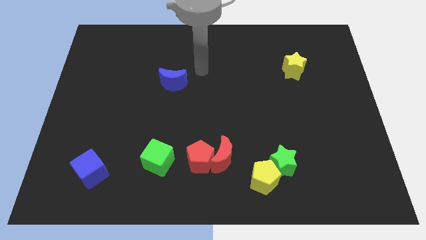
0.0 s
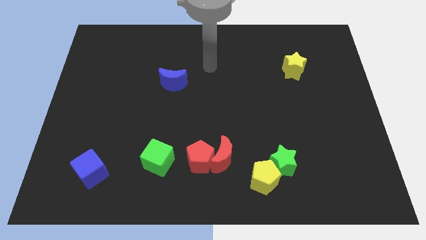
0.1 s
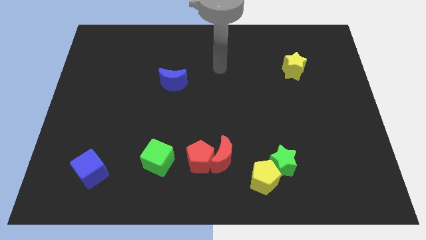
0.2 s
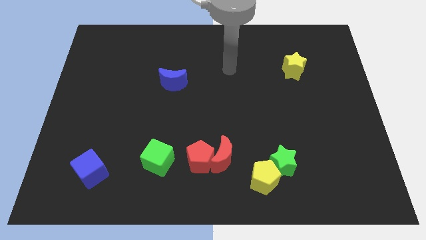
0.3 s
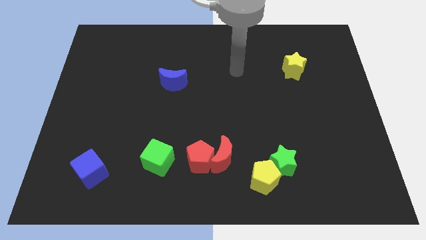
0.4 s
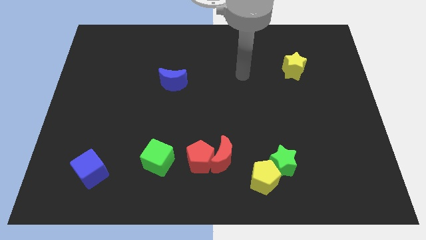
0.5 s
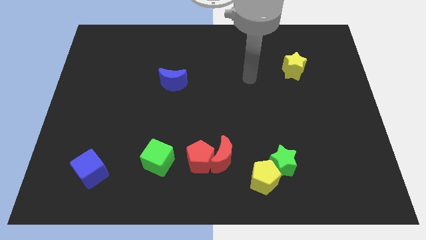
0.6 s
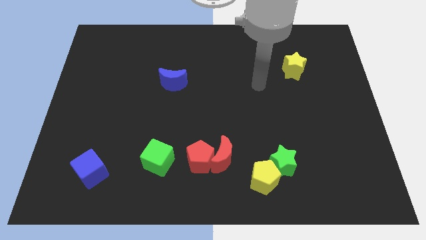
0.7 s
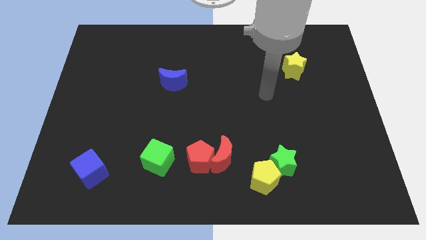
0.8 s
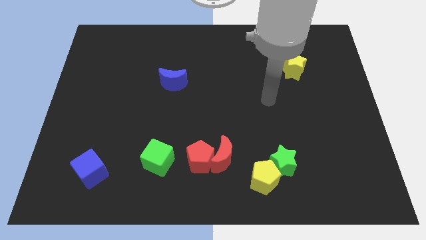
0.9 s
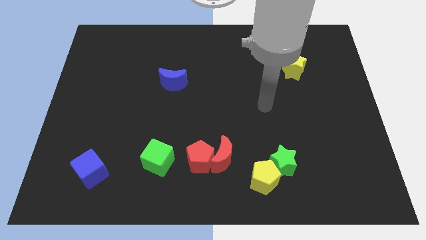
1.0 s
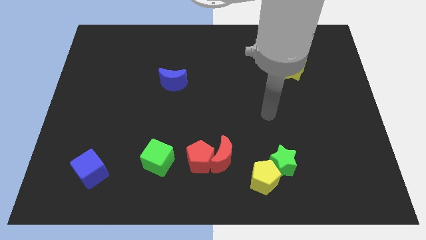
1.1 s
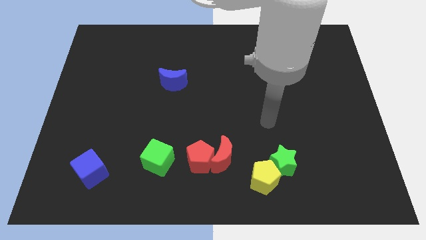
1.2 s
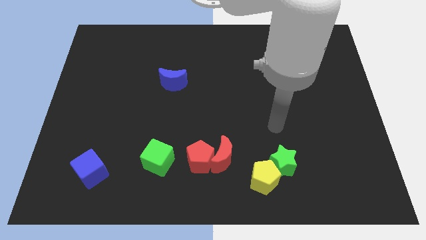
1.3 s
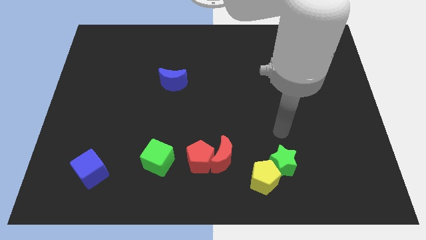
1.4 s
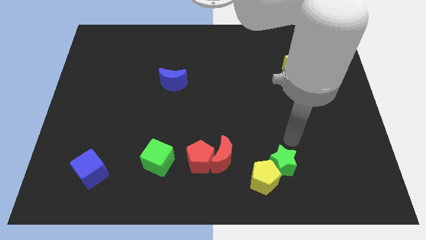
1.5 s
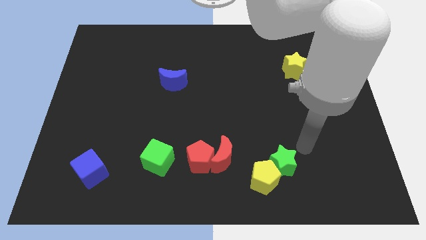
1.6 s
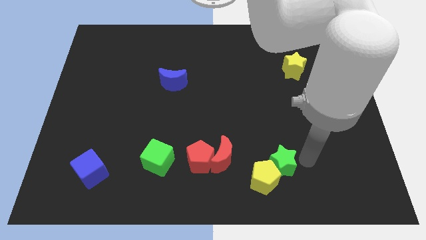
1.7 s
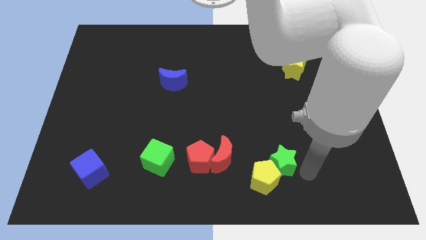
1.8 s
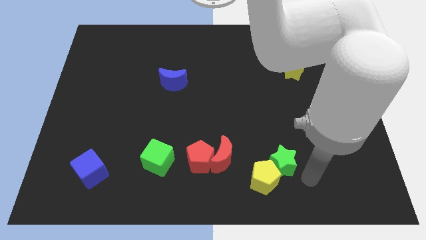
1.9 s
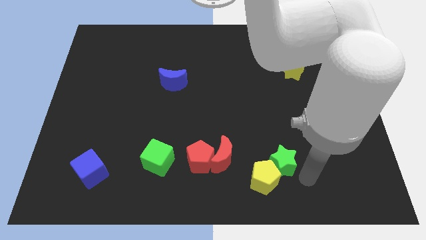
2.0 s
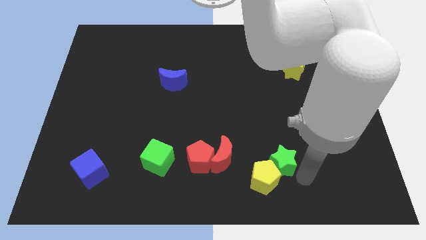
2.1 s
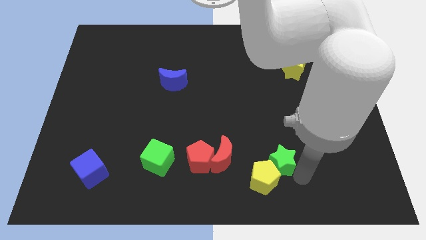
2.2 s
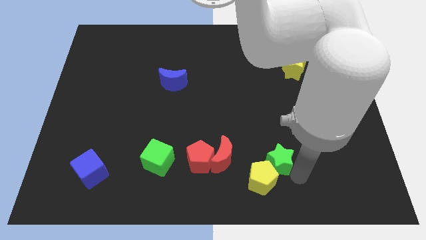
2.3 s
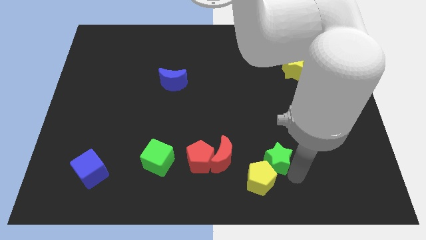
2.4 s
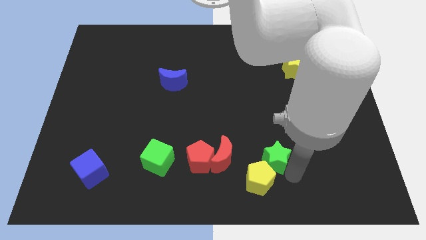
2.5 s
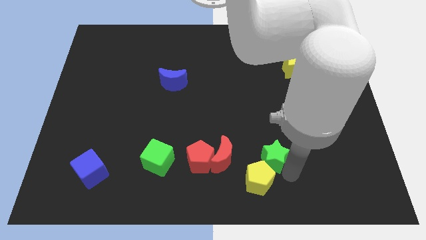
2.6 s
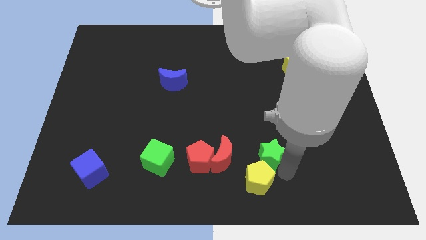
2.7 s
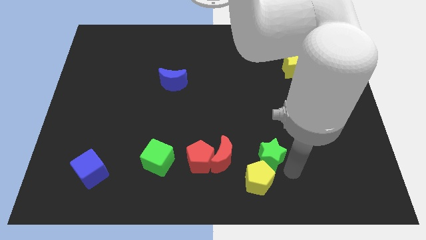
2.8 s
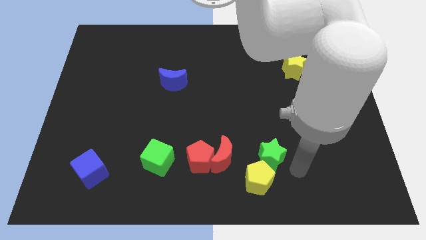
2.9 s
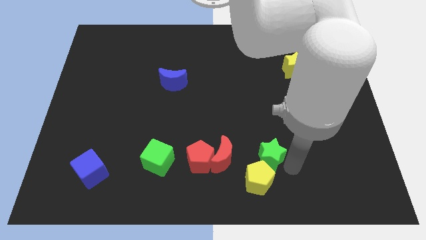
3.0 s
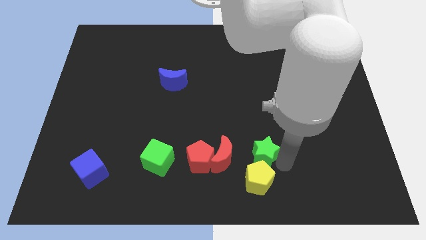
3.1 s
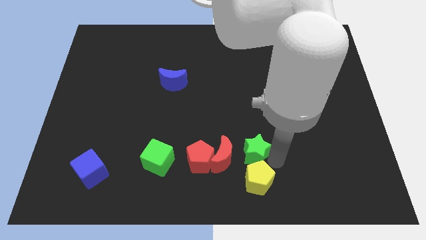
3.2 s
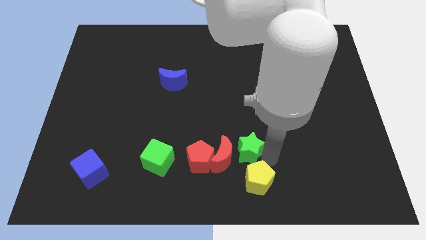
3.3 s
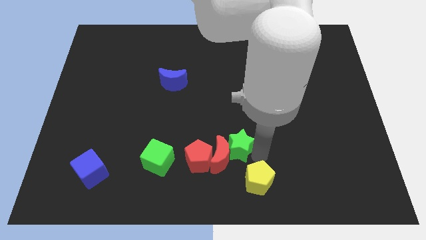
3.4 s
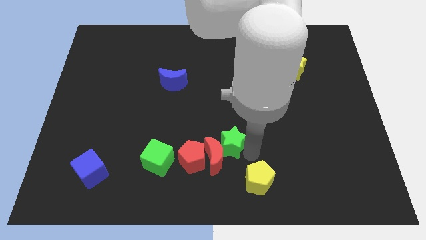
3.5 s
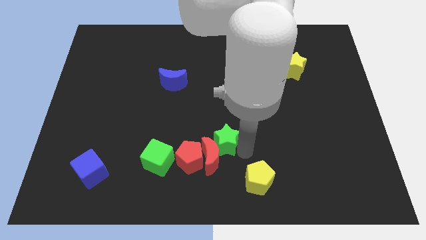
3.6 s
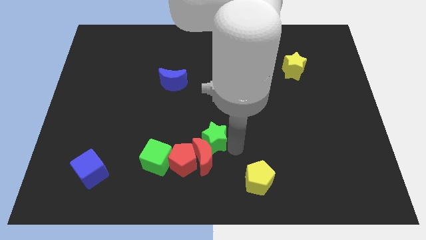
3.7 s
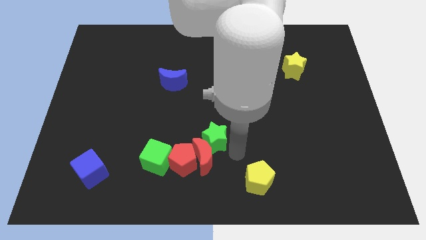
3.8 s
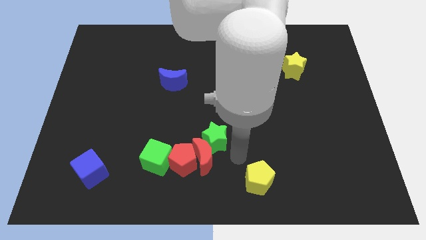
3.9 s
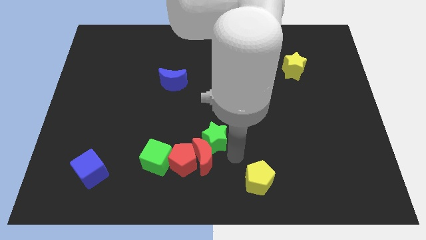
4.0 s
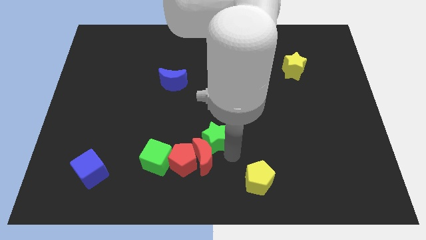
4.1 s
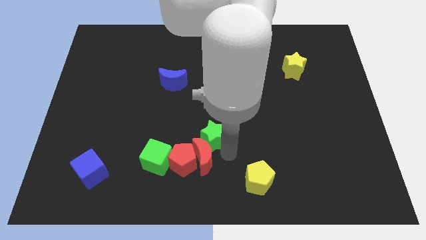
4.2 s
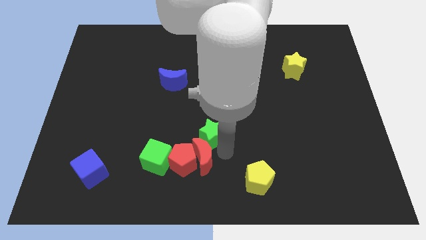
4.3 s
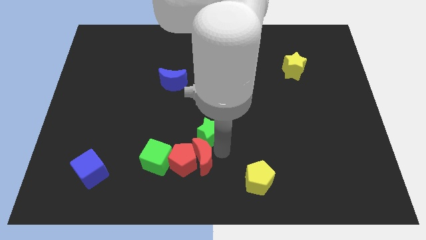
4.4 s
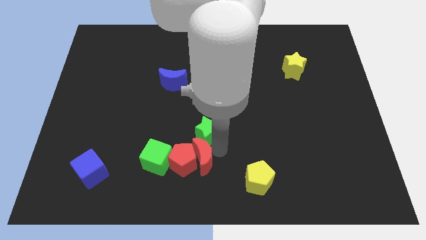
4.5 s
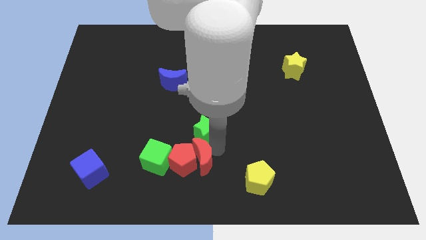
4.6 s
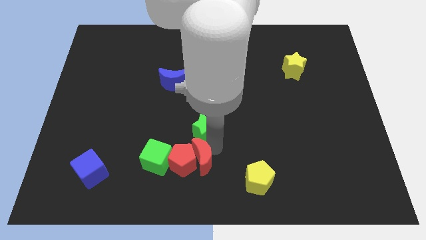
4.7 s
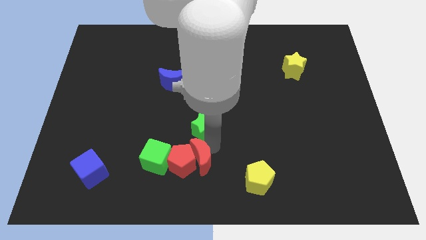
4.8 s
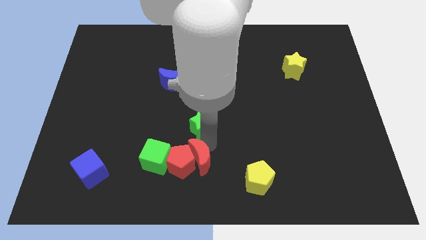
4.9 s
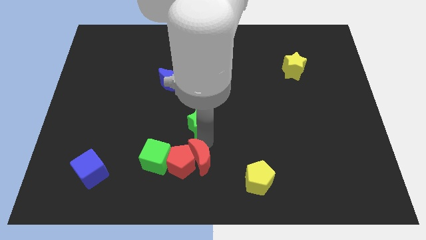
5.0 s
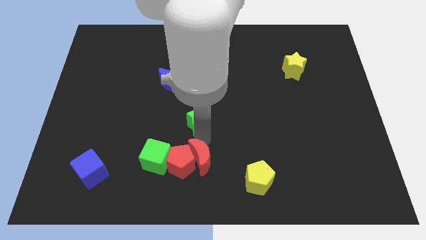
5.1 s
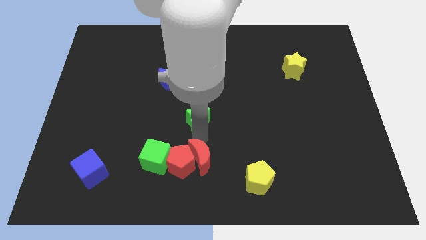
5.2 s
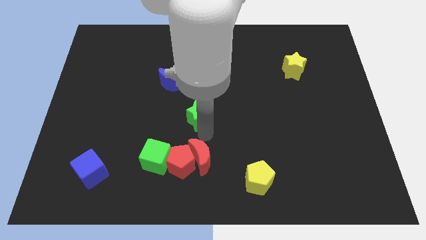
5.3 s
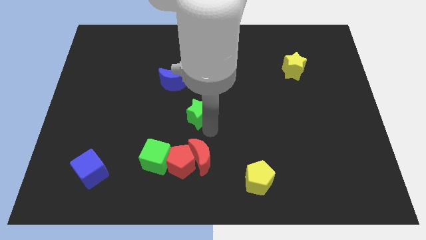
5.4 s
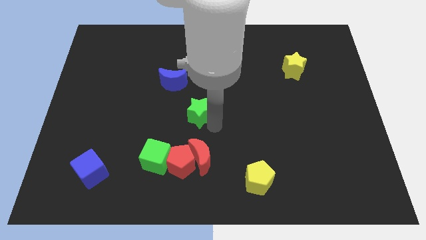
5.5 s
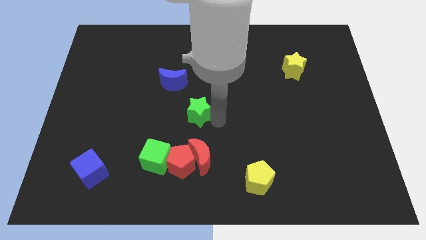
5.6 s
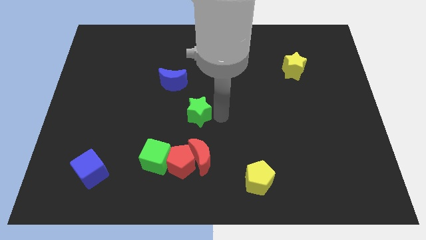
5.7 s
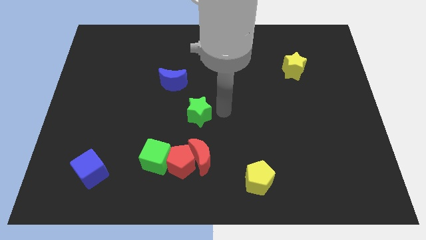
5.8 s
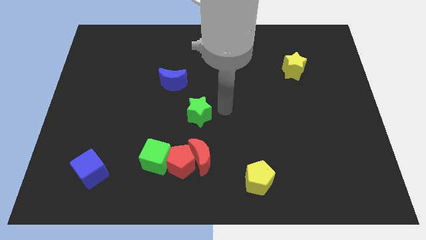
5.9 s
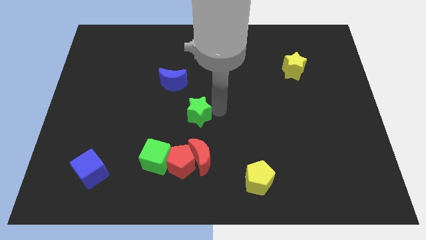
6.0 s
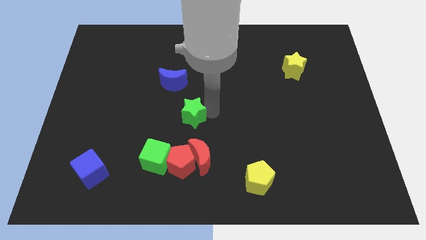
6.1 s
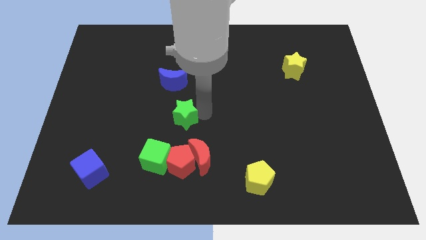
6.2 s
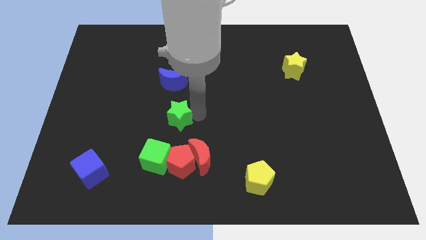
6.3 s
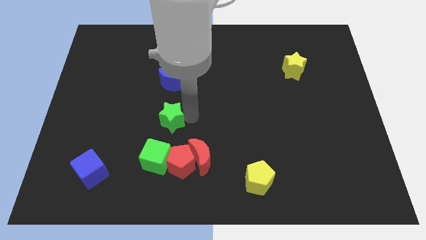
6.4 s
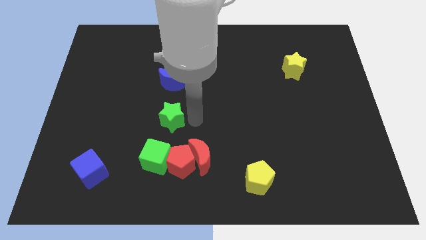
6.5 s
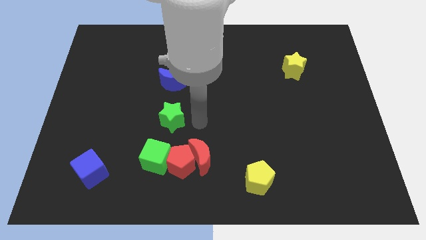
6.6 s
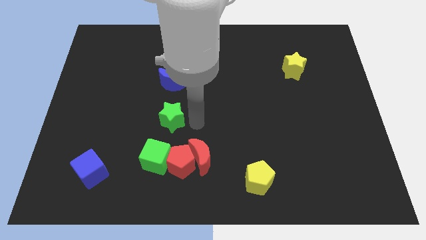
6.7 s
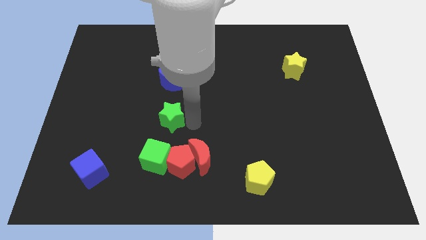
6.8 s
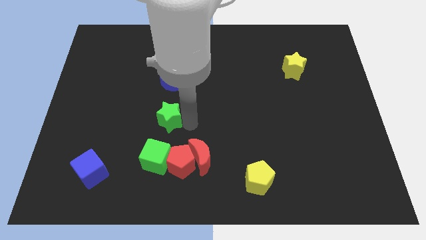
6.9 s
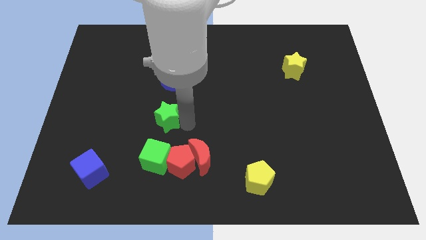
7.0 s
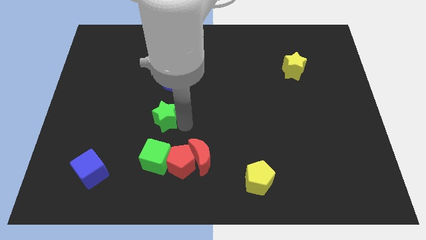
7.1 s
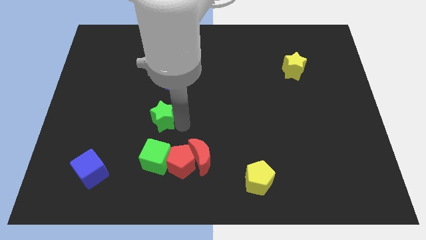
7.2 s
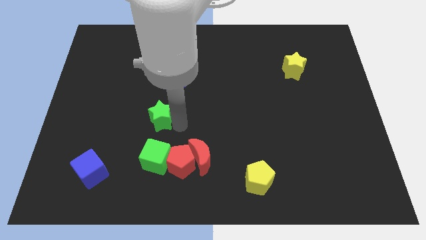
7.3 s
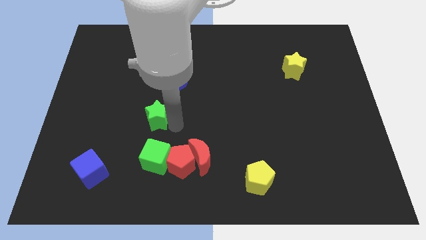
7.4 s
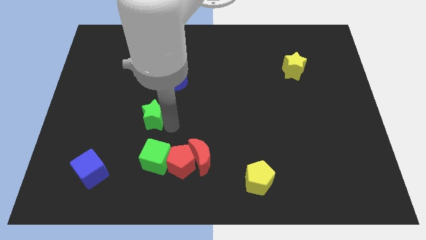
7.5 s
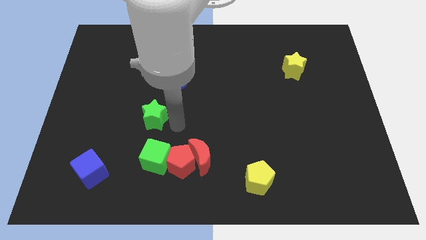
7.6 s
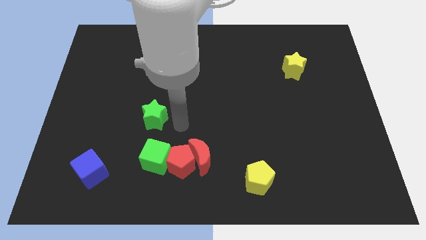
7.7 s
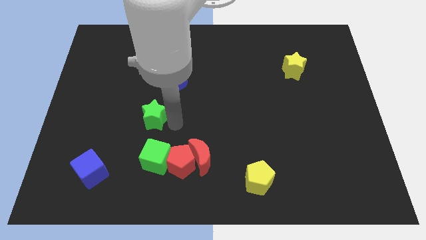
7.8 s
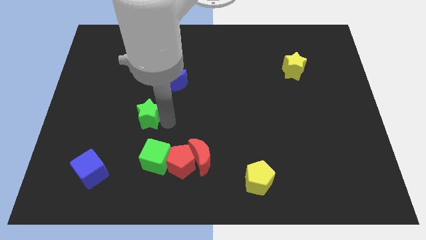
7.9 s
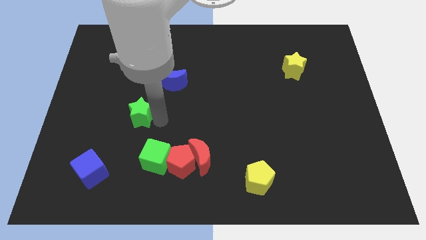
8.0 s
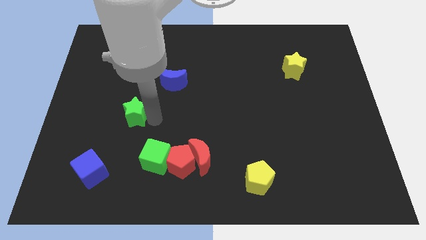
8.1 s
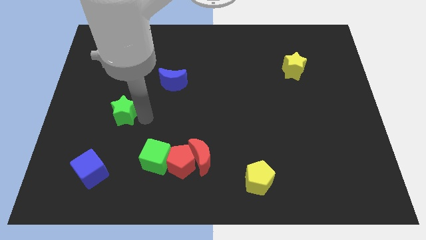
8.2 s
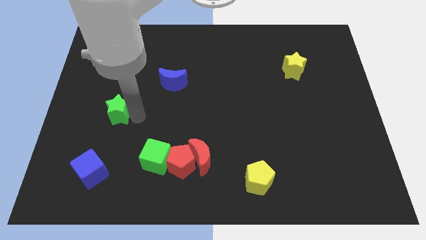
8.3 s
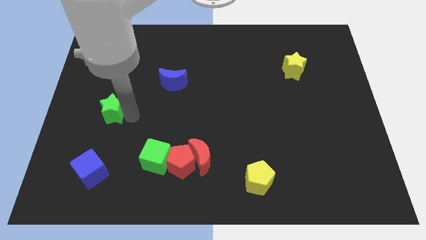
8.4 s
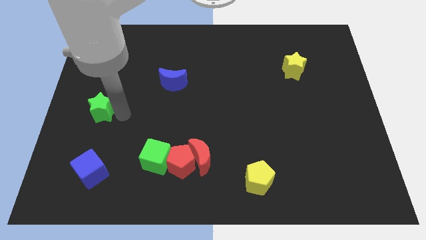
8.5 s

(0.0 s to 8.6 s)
put the green star to the center left
